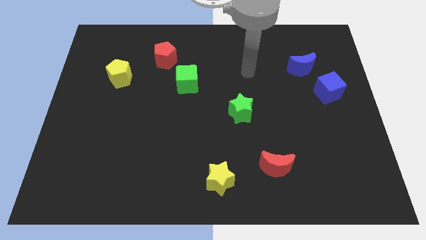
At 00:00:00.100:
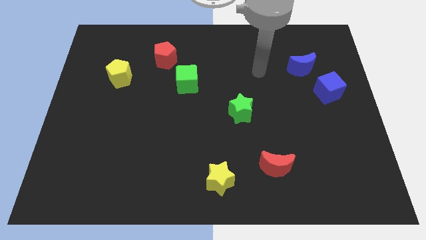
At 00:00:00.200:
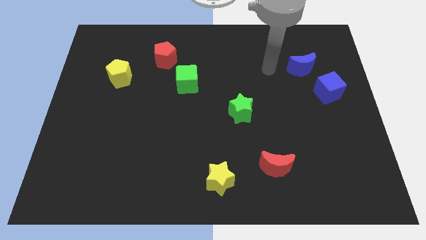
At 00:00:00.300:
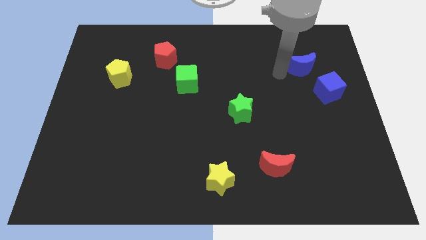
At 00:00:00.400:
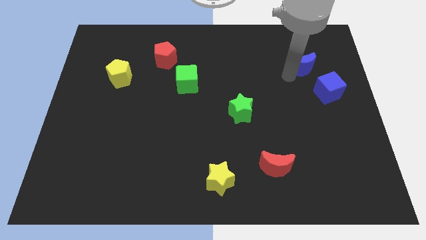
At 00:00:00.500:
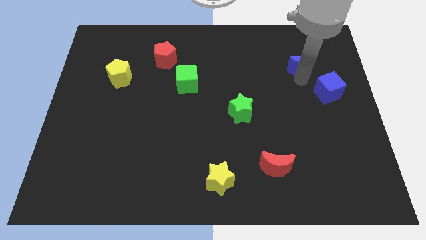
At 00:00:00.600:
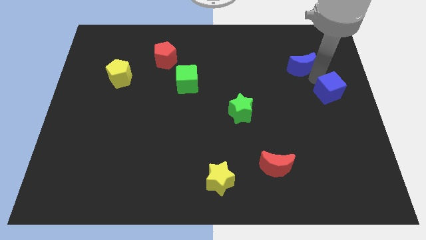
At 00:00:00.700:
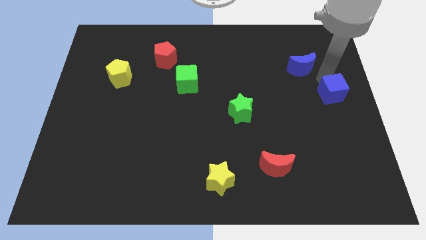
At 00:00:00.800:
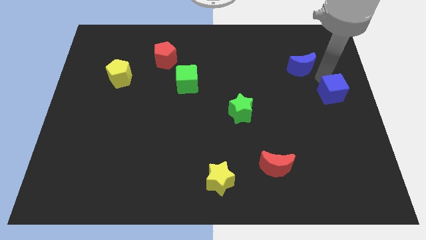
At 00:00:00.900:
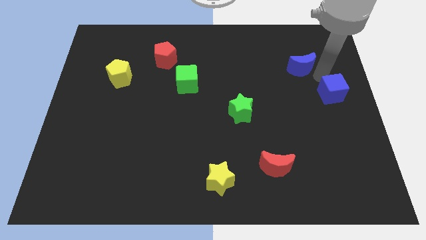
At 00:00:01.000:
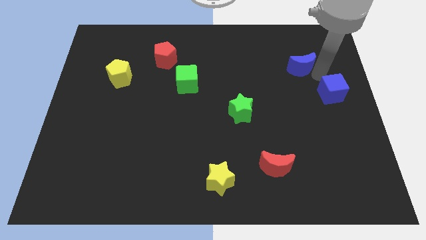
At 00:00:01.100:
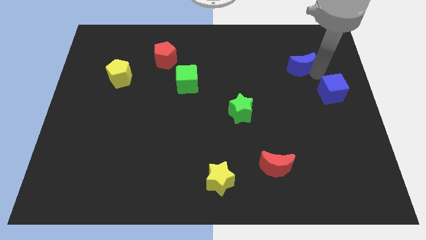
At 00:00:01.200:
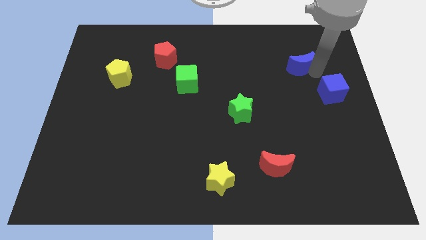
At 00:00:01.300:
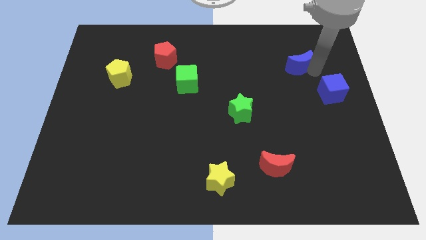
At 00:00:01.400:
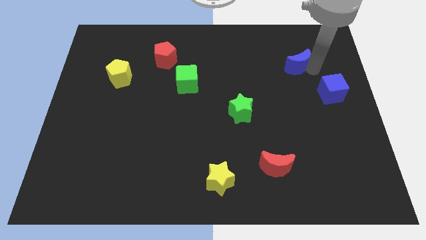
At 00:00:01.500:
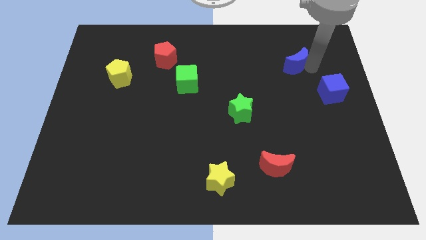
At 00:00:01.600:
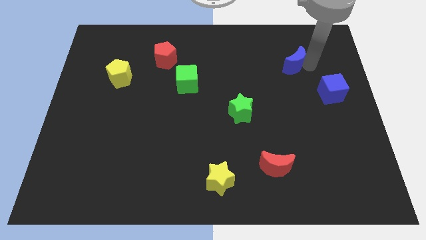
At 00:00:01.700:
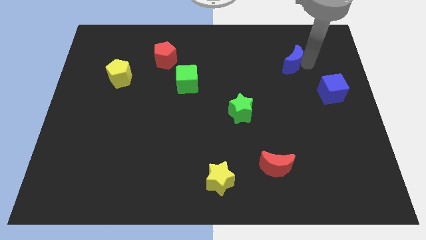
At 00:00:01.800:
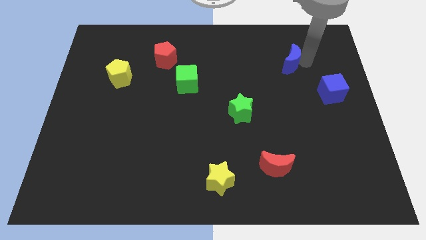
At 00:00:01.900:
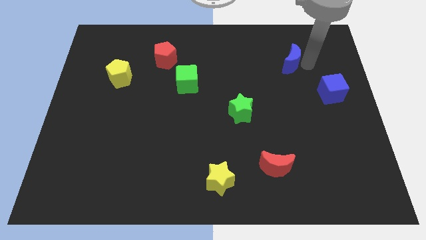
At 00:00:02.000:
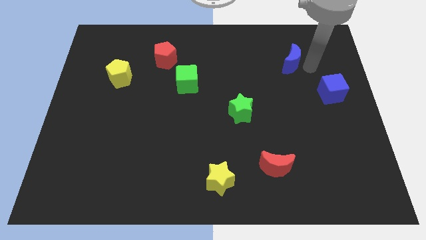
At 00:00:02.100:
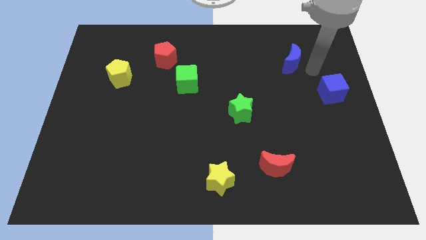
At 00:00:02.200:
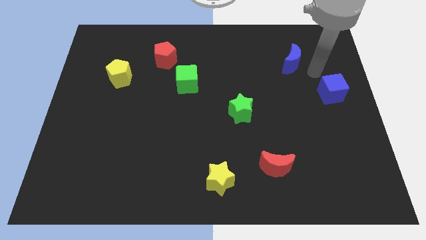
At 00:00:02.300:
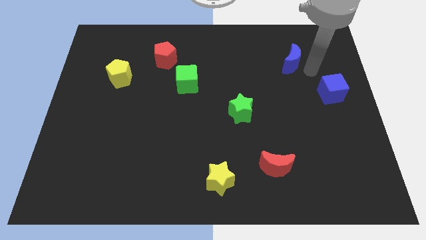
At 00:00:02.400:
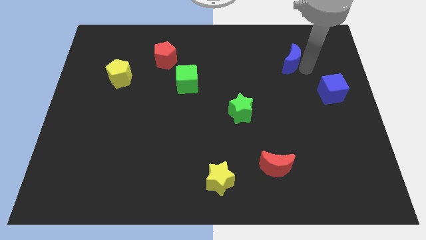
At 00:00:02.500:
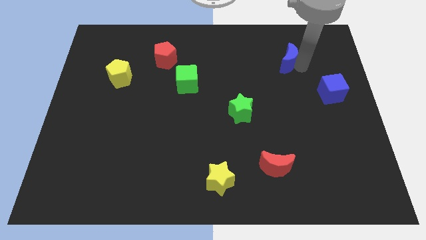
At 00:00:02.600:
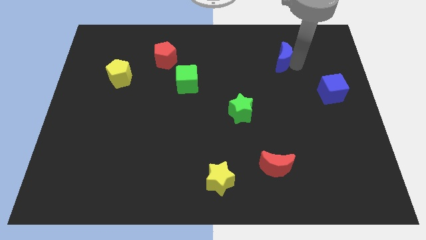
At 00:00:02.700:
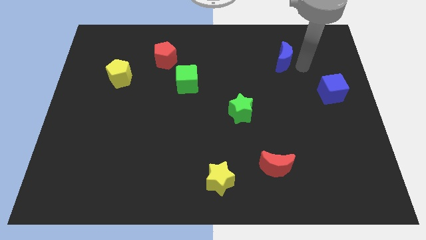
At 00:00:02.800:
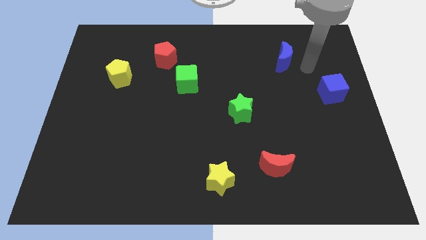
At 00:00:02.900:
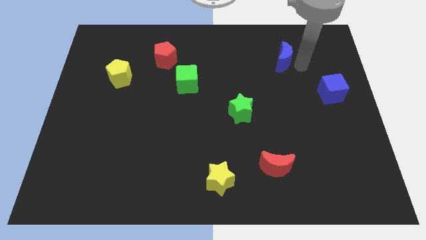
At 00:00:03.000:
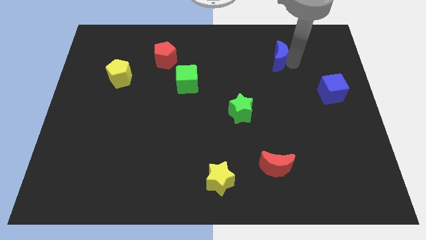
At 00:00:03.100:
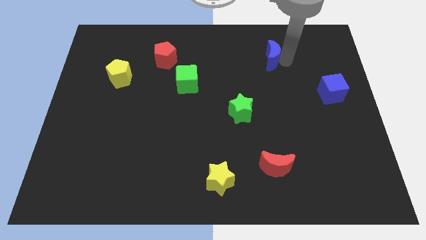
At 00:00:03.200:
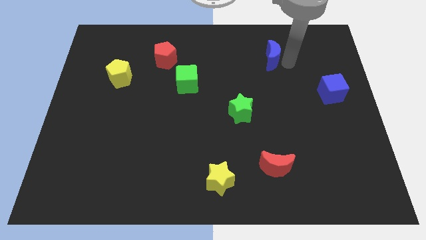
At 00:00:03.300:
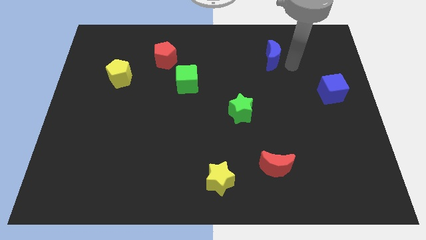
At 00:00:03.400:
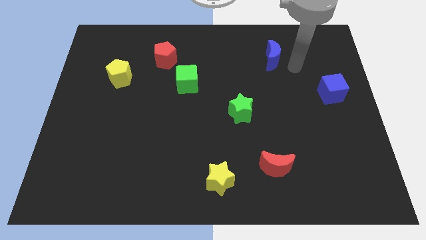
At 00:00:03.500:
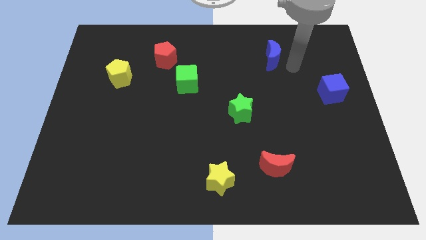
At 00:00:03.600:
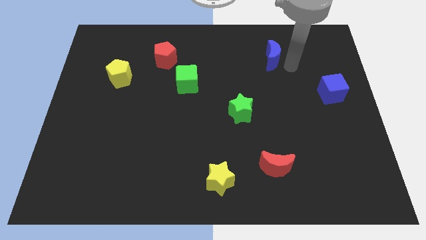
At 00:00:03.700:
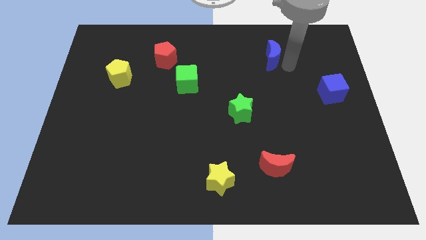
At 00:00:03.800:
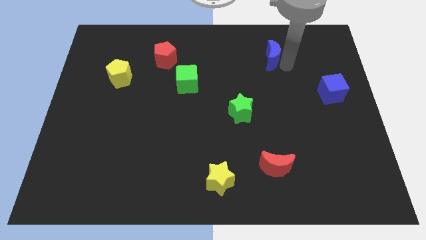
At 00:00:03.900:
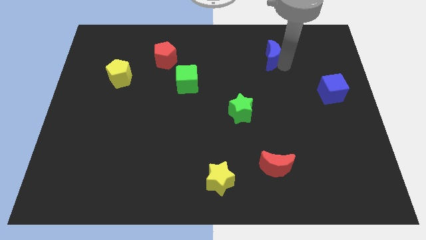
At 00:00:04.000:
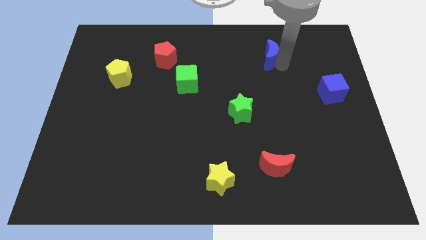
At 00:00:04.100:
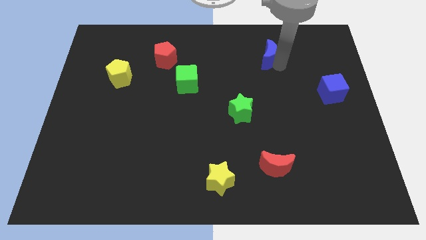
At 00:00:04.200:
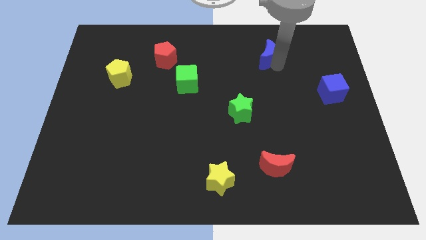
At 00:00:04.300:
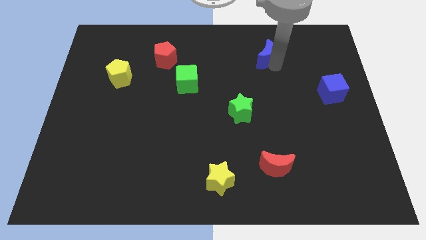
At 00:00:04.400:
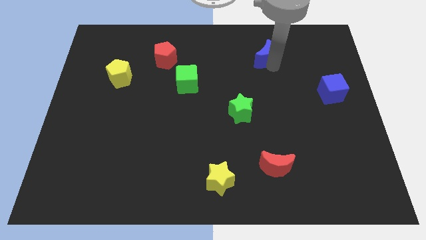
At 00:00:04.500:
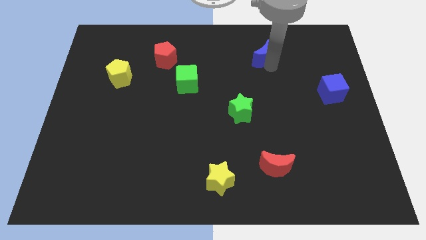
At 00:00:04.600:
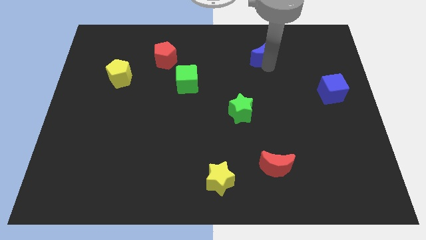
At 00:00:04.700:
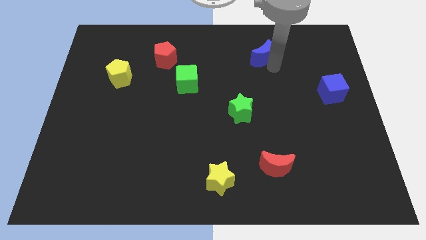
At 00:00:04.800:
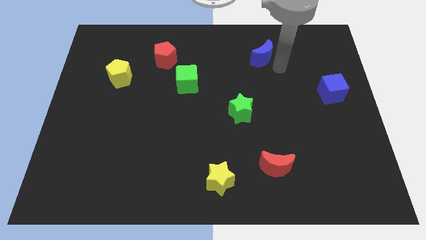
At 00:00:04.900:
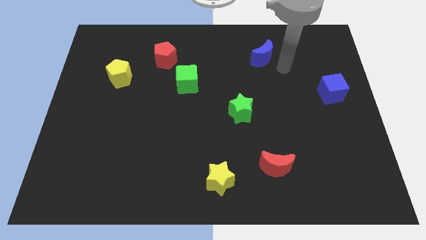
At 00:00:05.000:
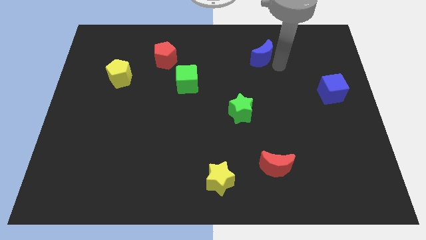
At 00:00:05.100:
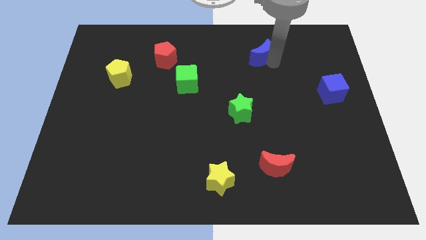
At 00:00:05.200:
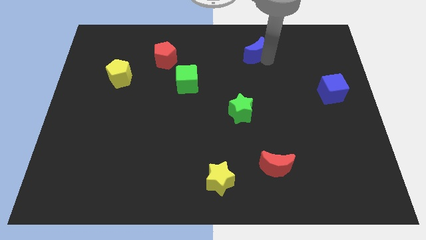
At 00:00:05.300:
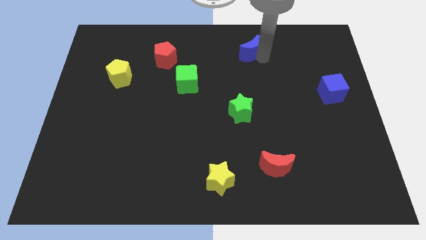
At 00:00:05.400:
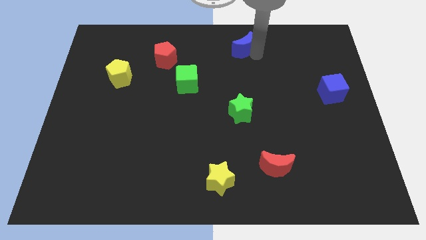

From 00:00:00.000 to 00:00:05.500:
push the blue moon to the top side

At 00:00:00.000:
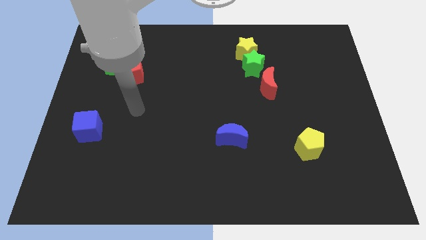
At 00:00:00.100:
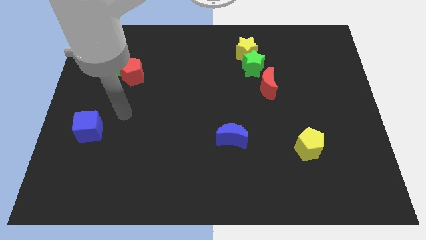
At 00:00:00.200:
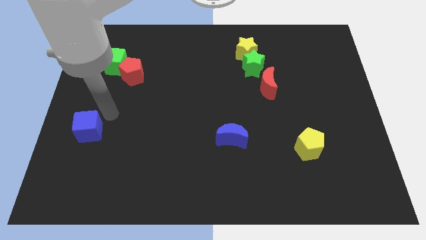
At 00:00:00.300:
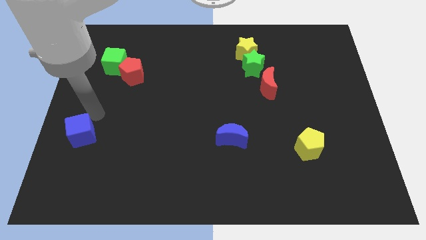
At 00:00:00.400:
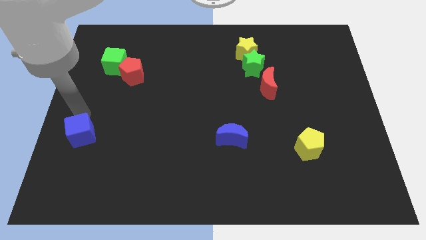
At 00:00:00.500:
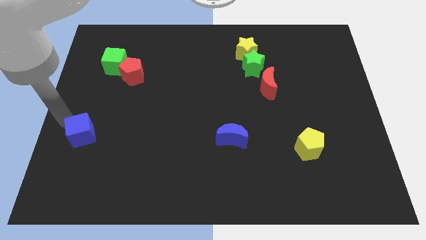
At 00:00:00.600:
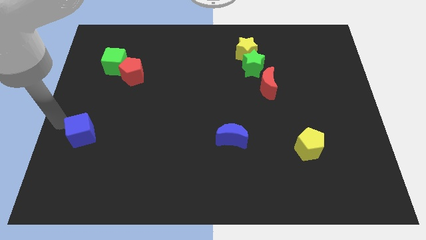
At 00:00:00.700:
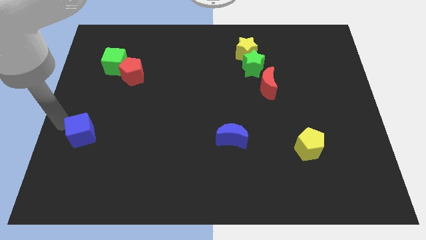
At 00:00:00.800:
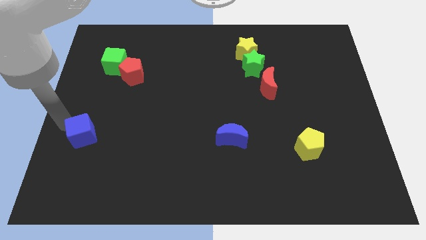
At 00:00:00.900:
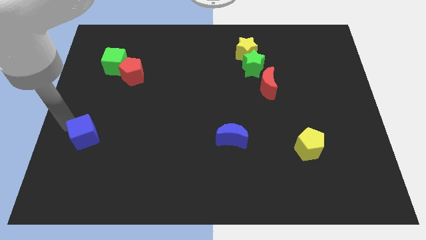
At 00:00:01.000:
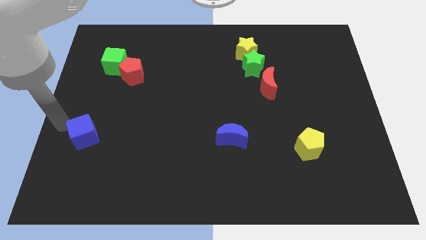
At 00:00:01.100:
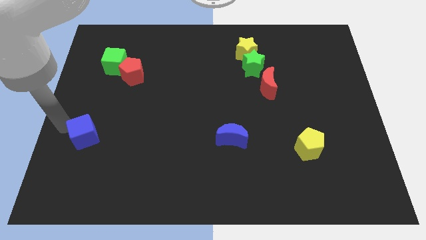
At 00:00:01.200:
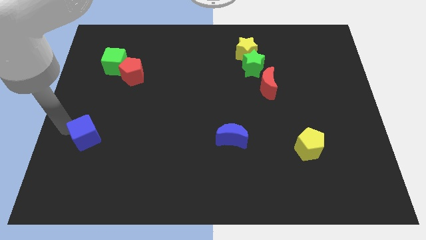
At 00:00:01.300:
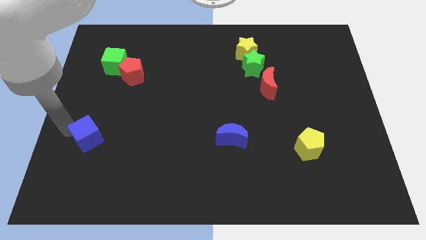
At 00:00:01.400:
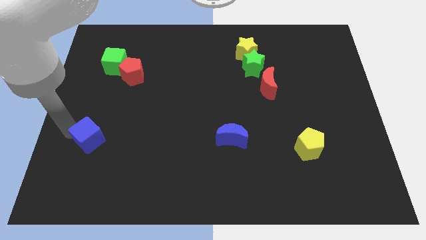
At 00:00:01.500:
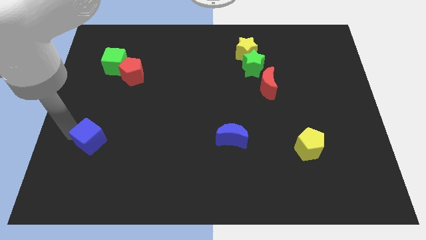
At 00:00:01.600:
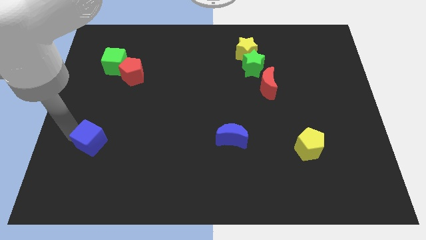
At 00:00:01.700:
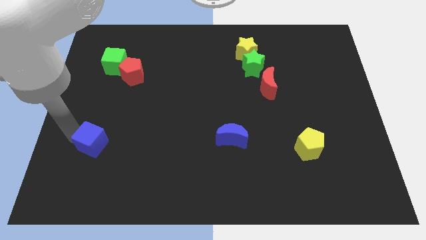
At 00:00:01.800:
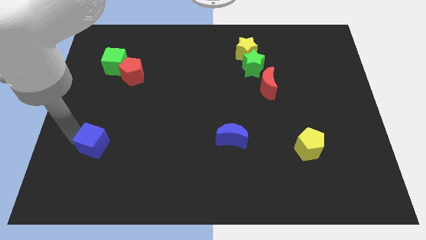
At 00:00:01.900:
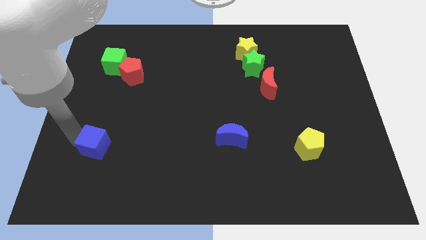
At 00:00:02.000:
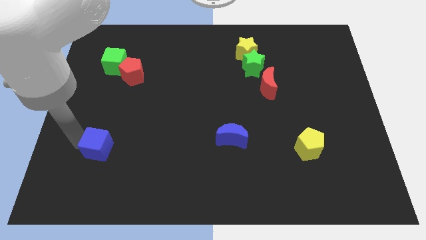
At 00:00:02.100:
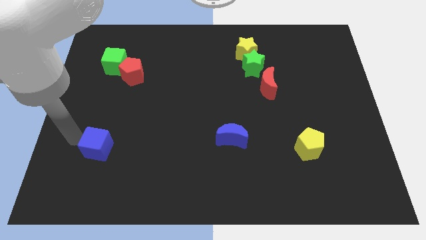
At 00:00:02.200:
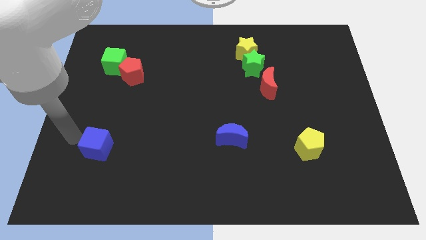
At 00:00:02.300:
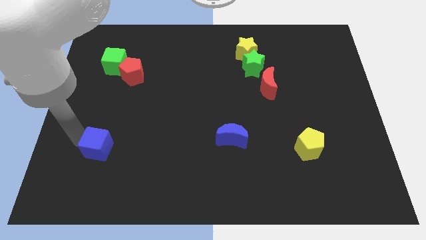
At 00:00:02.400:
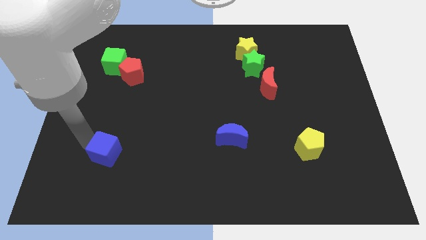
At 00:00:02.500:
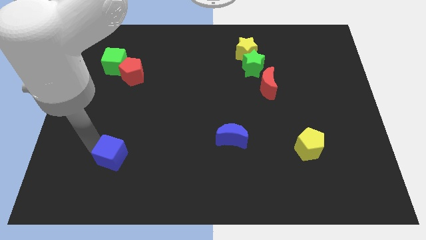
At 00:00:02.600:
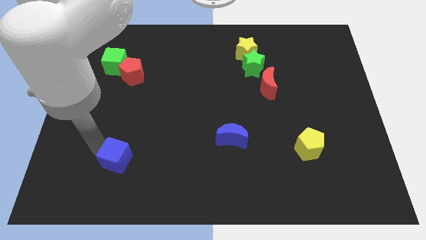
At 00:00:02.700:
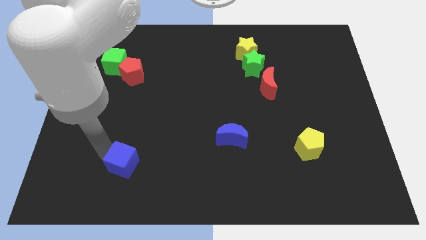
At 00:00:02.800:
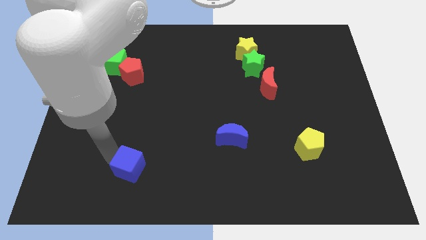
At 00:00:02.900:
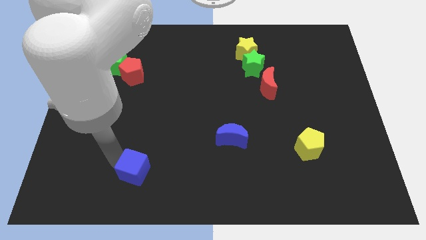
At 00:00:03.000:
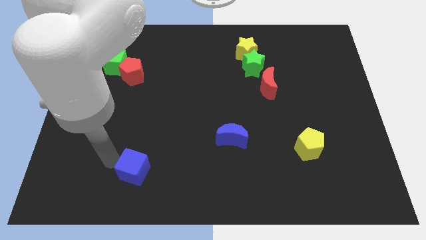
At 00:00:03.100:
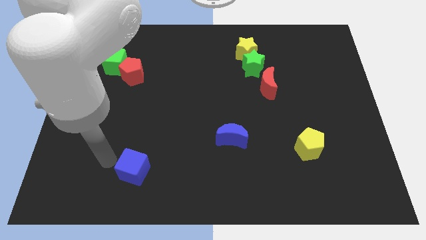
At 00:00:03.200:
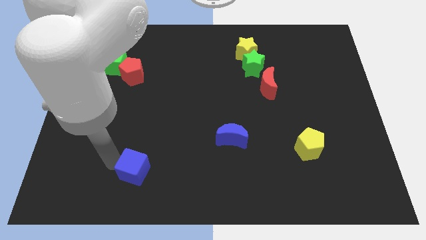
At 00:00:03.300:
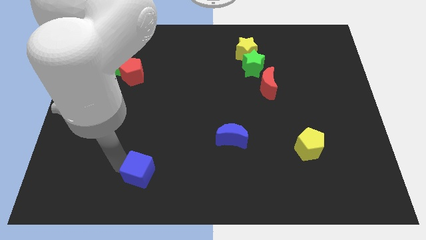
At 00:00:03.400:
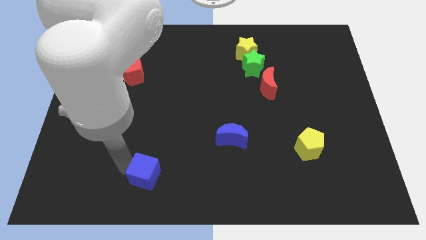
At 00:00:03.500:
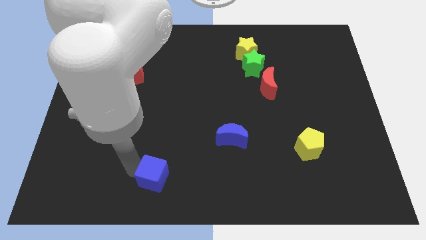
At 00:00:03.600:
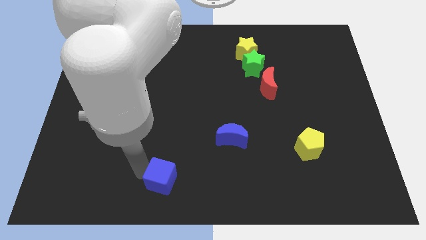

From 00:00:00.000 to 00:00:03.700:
move the blue cube to the bottom side
